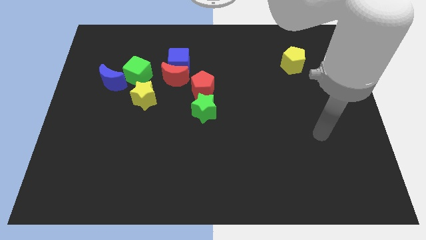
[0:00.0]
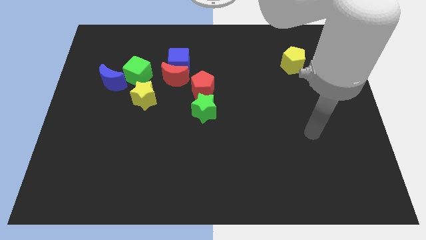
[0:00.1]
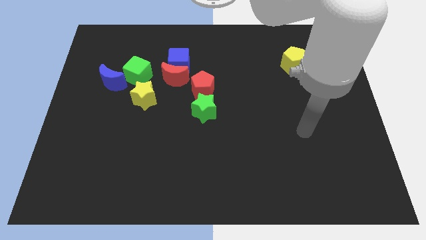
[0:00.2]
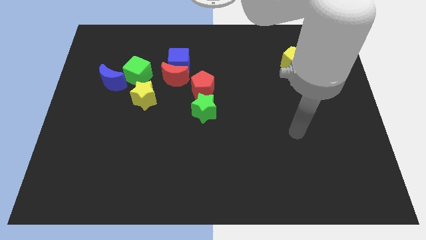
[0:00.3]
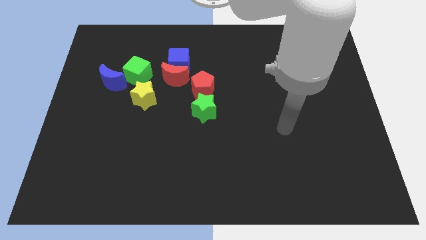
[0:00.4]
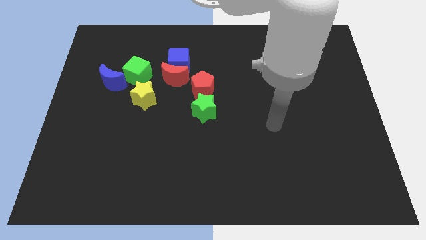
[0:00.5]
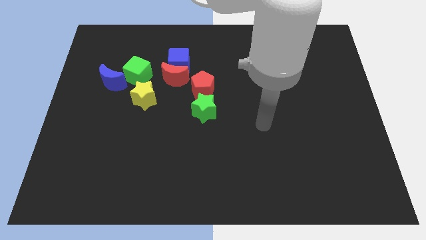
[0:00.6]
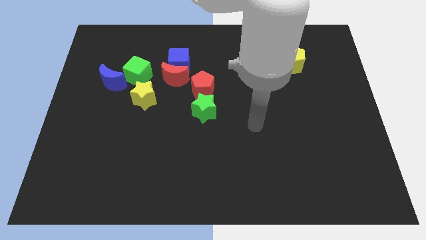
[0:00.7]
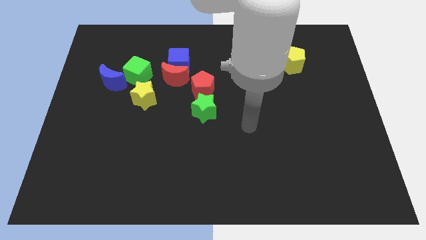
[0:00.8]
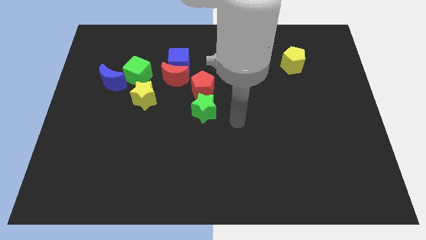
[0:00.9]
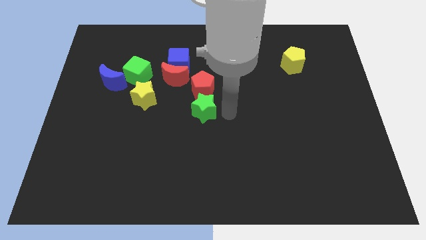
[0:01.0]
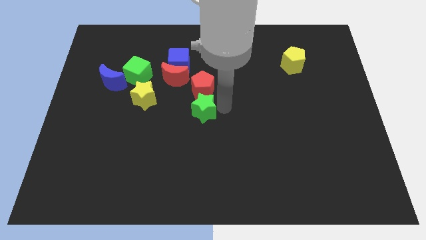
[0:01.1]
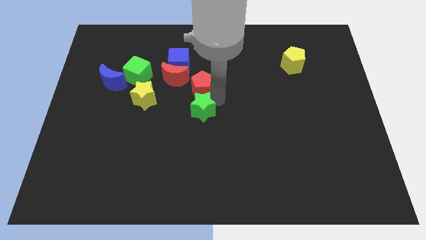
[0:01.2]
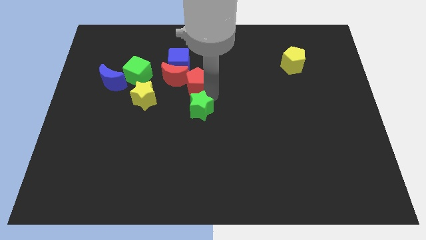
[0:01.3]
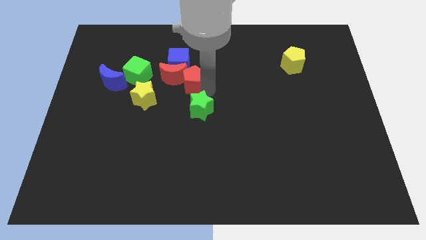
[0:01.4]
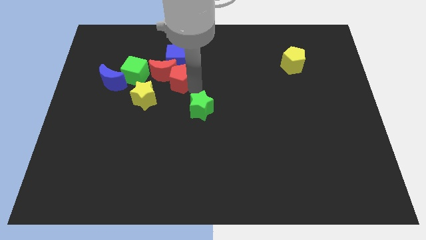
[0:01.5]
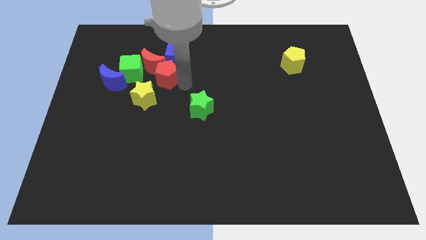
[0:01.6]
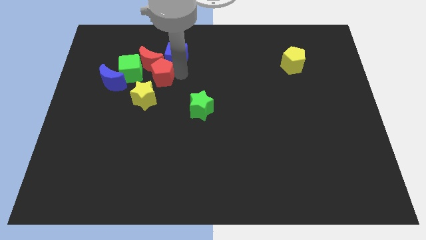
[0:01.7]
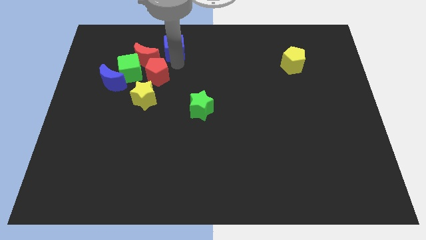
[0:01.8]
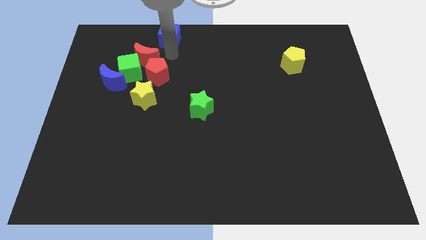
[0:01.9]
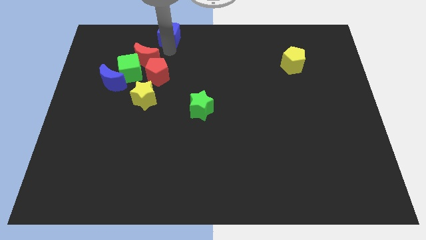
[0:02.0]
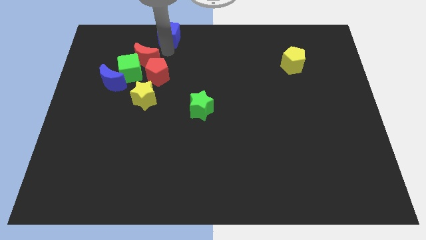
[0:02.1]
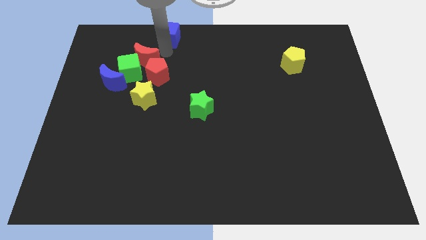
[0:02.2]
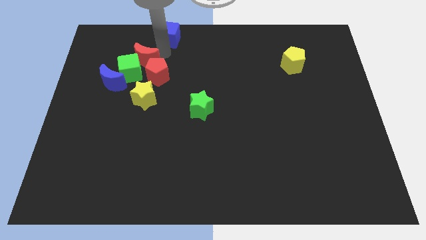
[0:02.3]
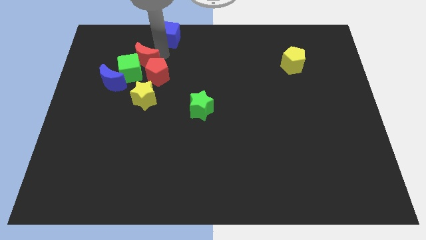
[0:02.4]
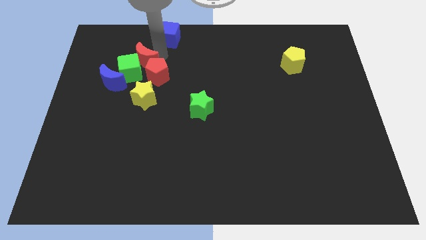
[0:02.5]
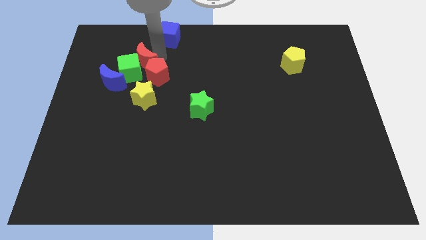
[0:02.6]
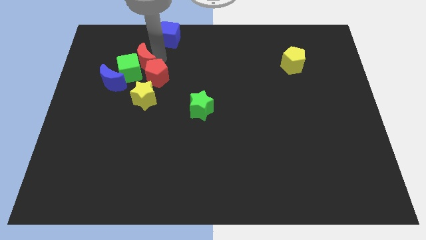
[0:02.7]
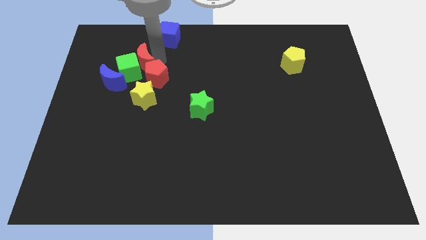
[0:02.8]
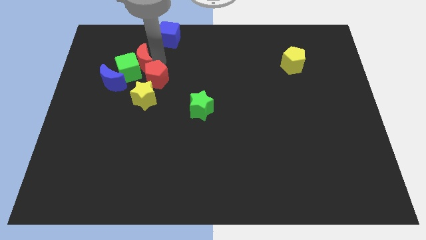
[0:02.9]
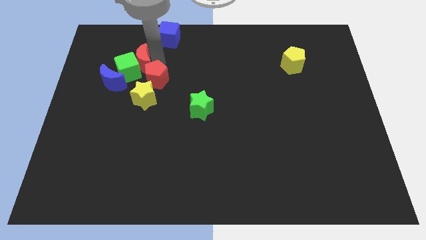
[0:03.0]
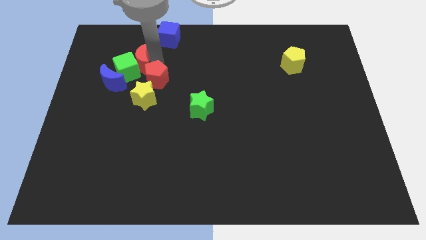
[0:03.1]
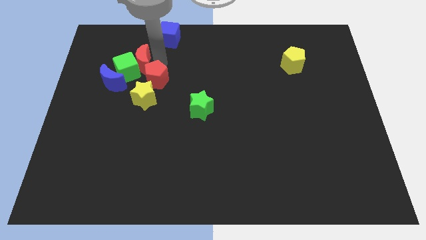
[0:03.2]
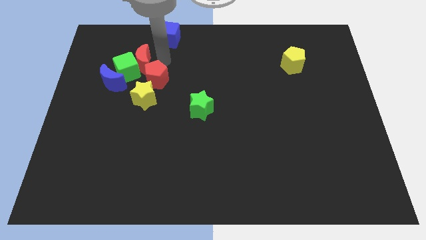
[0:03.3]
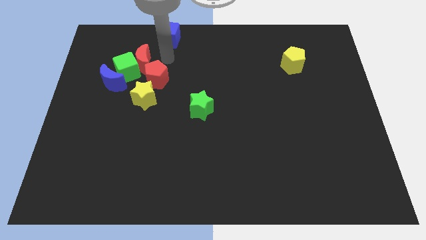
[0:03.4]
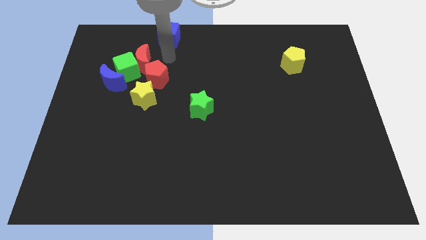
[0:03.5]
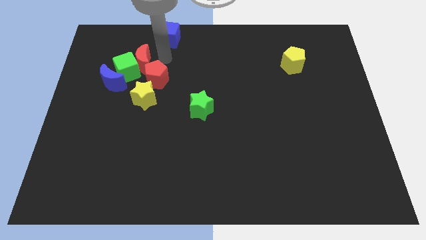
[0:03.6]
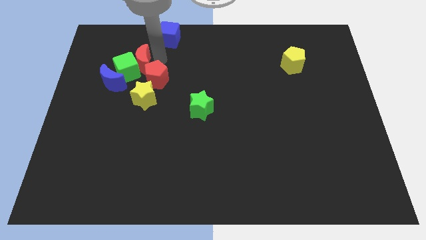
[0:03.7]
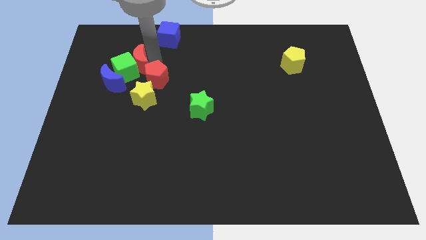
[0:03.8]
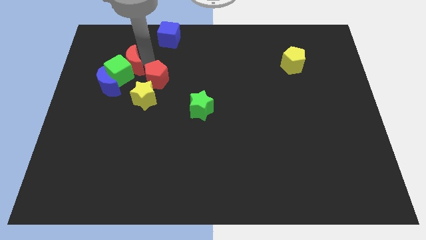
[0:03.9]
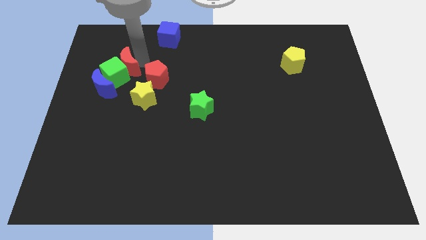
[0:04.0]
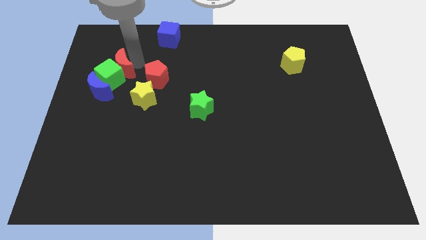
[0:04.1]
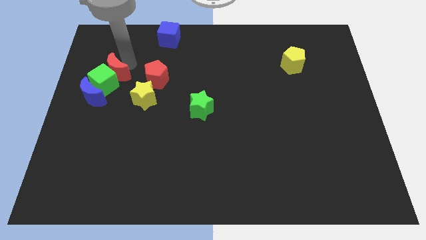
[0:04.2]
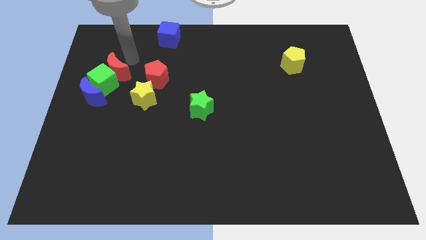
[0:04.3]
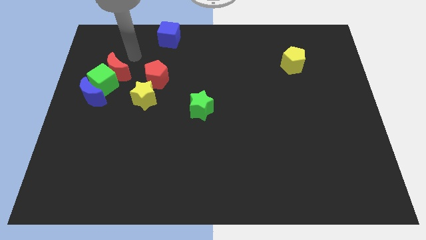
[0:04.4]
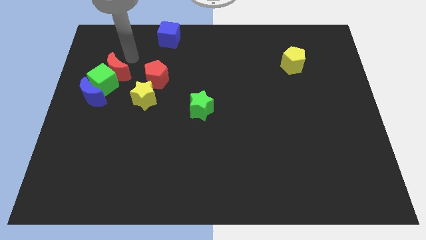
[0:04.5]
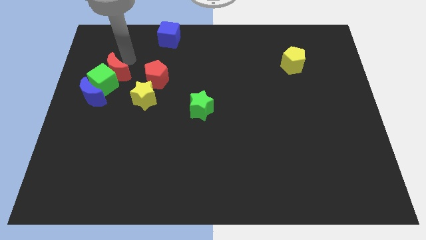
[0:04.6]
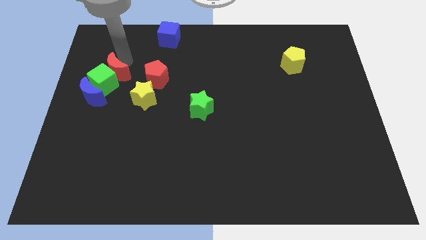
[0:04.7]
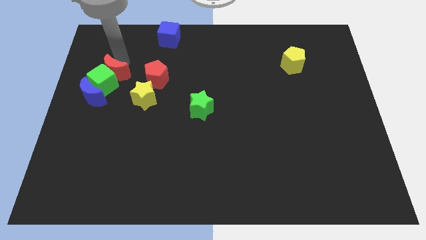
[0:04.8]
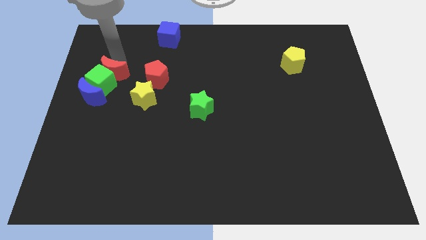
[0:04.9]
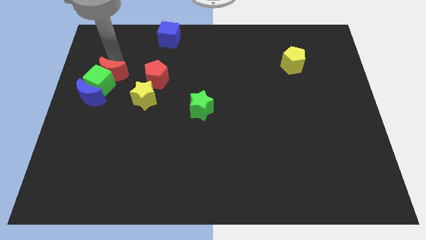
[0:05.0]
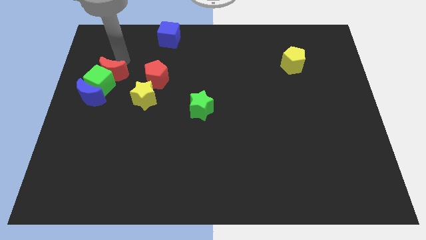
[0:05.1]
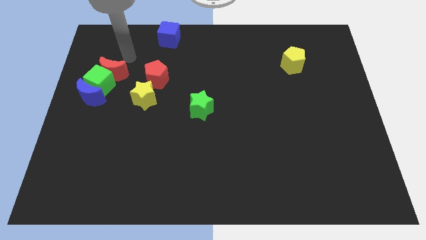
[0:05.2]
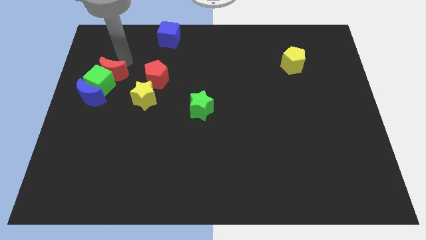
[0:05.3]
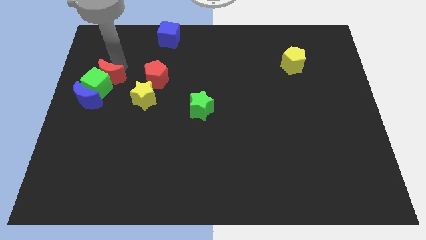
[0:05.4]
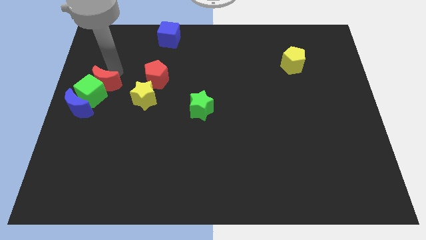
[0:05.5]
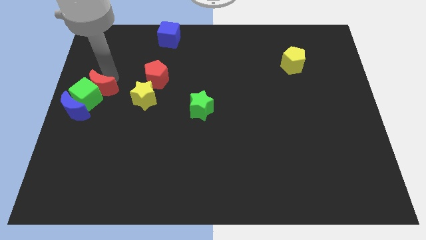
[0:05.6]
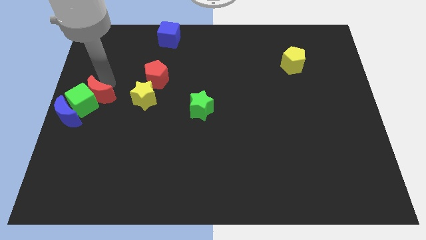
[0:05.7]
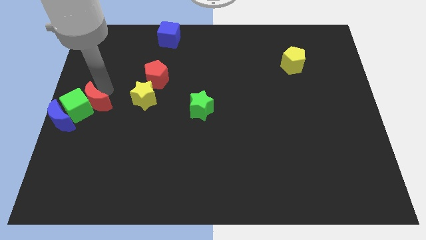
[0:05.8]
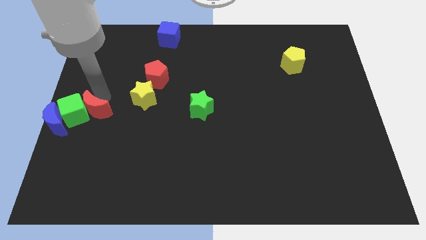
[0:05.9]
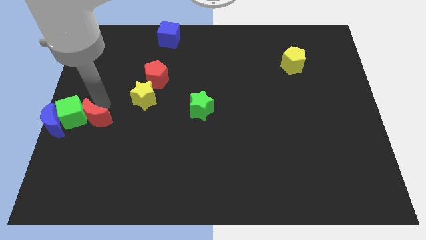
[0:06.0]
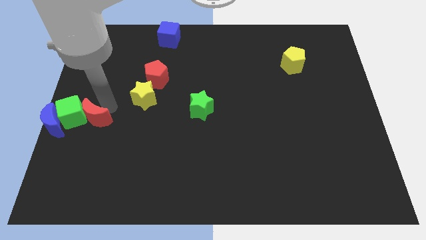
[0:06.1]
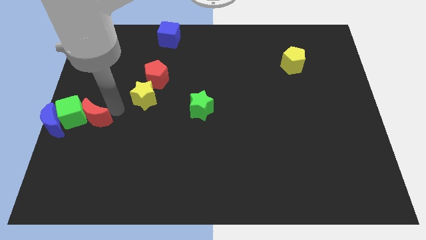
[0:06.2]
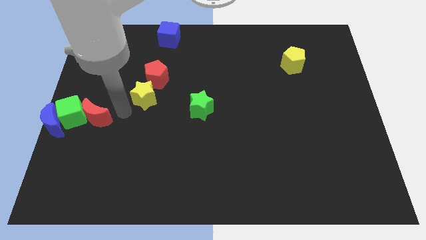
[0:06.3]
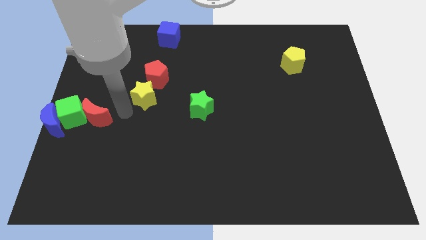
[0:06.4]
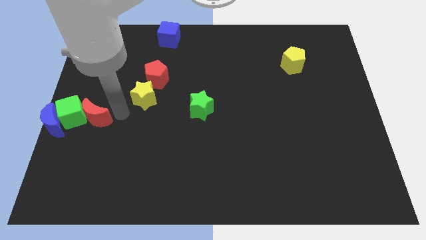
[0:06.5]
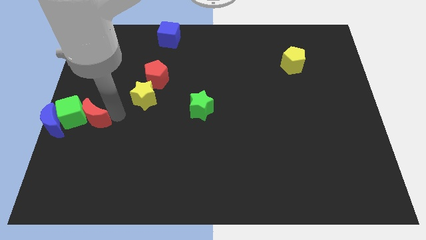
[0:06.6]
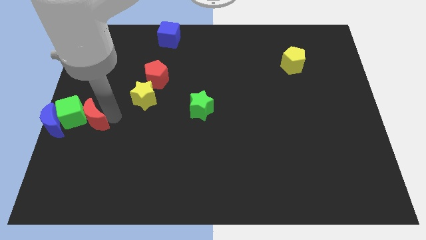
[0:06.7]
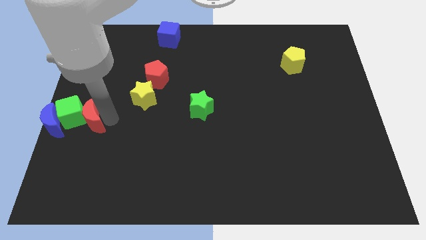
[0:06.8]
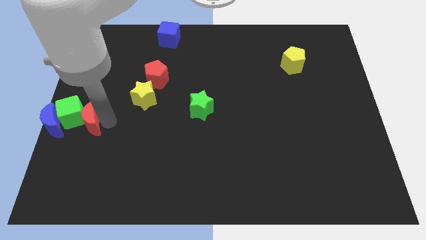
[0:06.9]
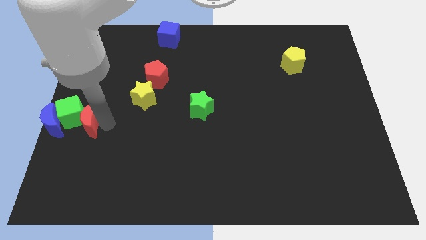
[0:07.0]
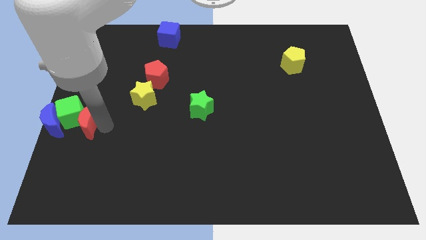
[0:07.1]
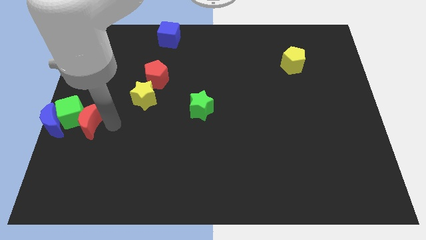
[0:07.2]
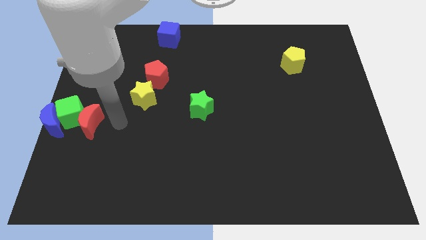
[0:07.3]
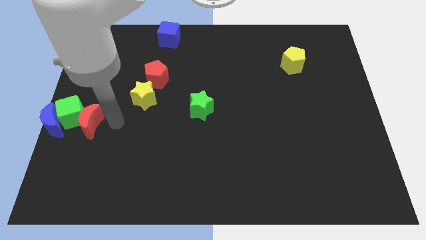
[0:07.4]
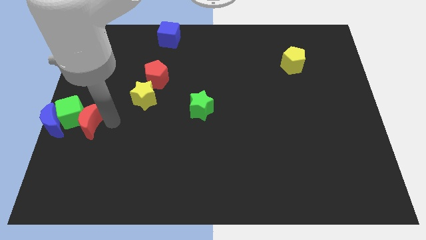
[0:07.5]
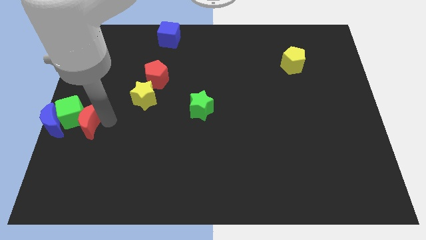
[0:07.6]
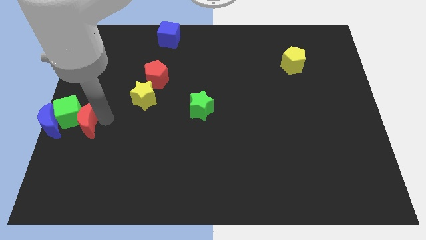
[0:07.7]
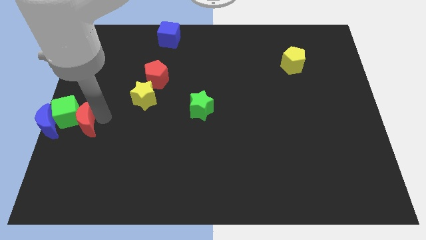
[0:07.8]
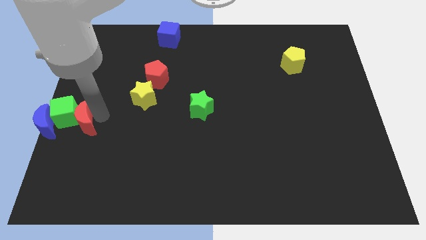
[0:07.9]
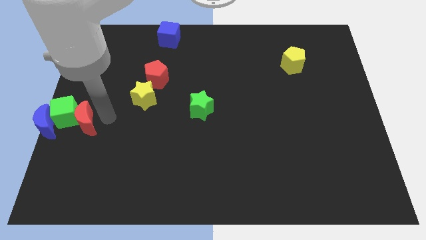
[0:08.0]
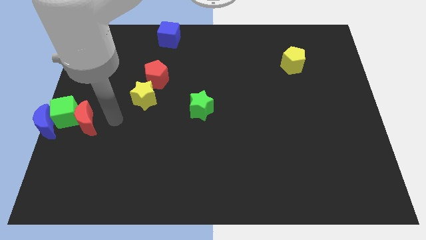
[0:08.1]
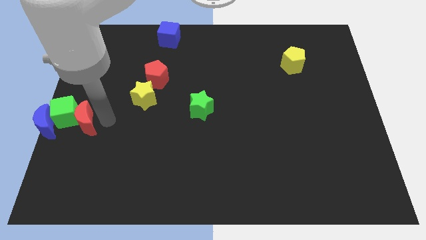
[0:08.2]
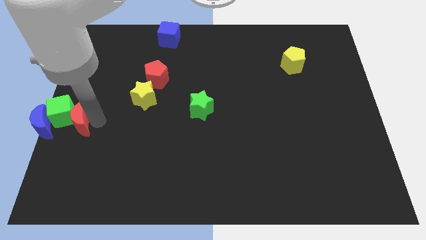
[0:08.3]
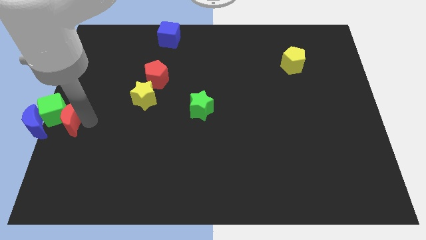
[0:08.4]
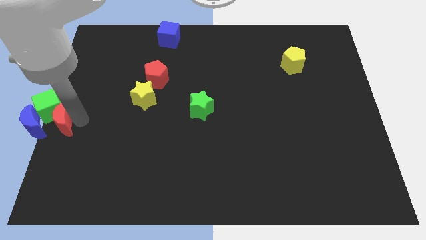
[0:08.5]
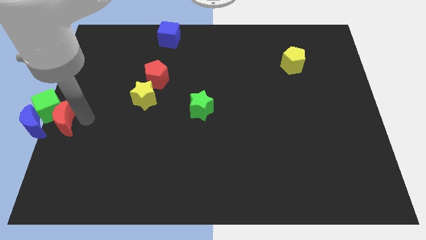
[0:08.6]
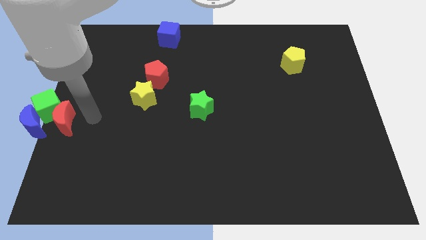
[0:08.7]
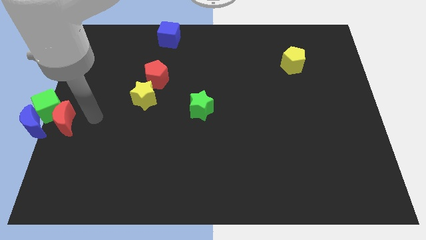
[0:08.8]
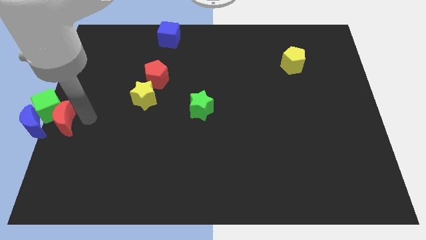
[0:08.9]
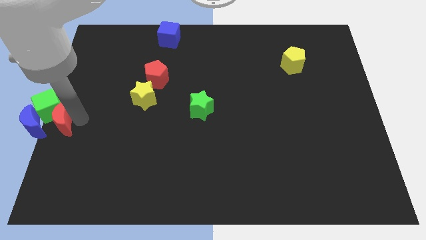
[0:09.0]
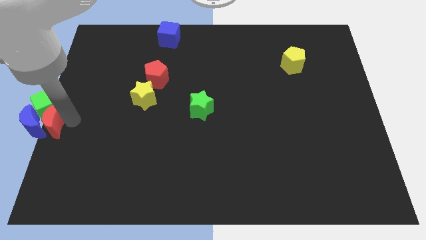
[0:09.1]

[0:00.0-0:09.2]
slide the red moon to the blue moon
